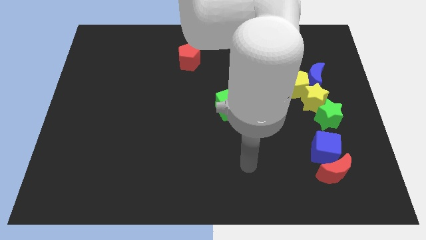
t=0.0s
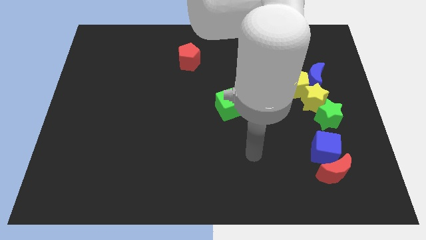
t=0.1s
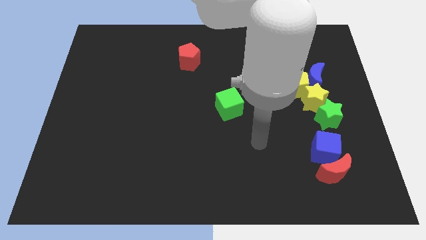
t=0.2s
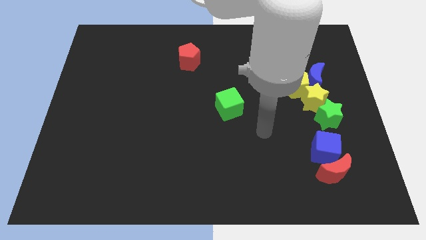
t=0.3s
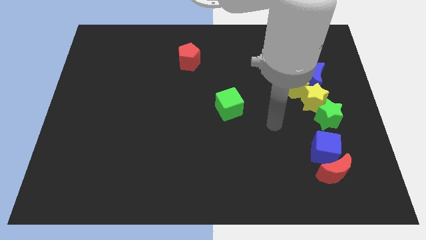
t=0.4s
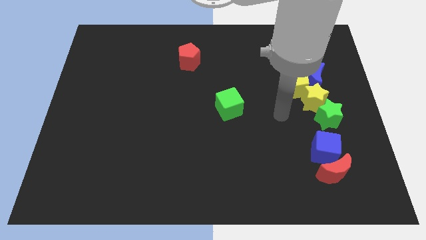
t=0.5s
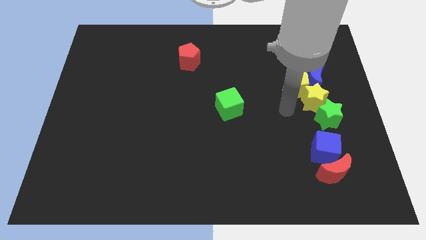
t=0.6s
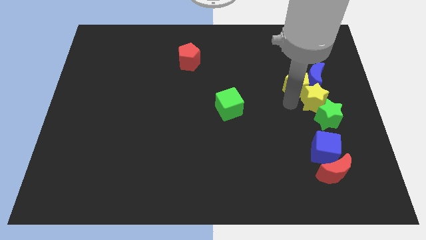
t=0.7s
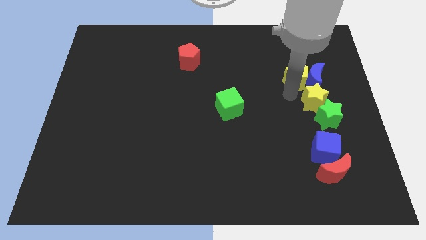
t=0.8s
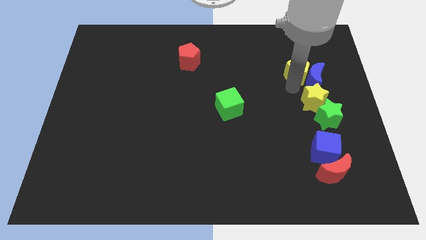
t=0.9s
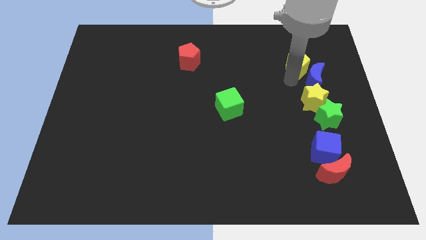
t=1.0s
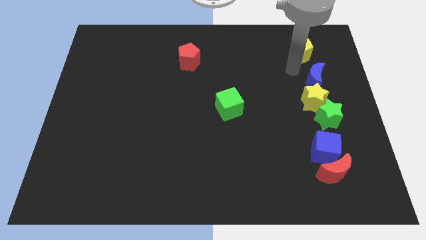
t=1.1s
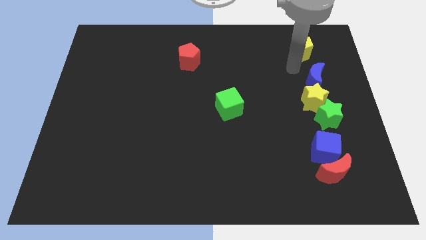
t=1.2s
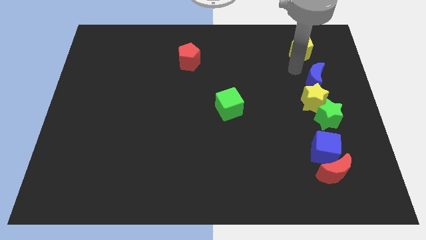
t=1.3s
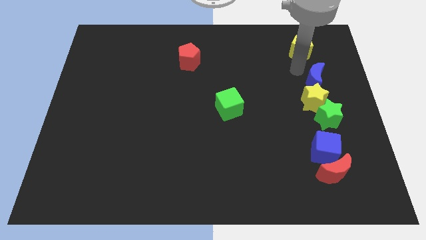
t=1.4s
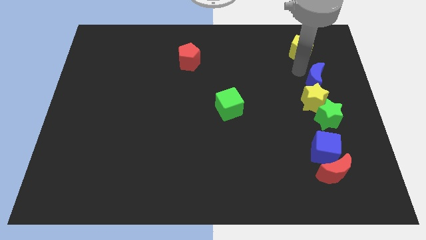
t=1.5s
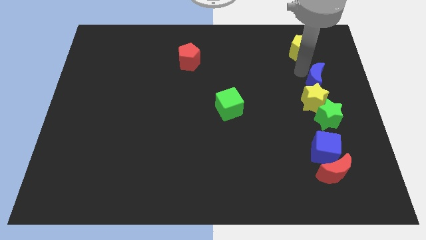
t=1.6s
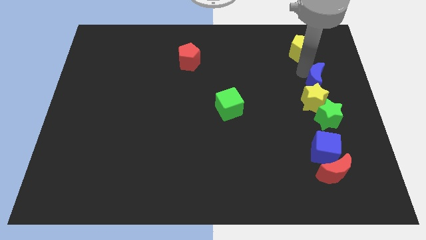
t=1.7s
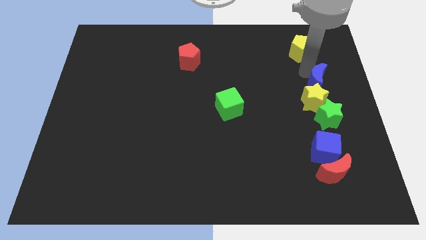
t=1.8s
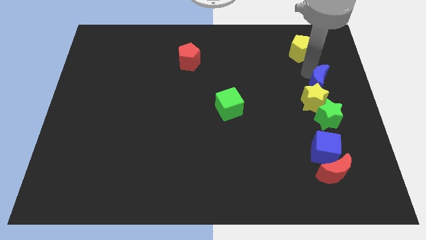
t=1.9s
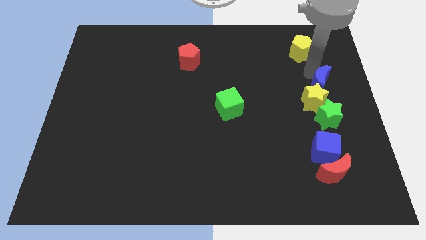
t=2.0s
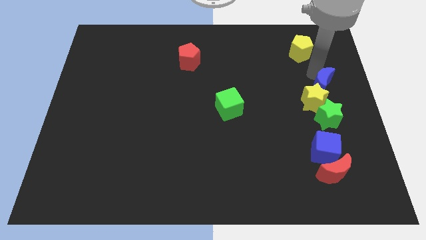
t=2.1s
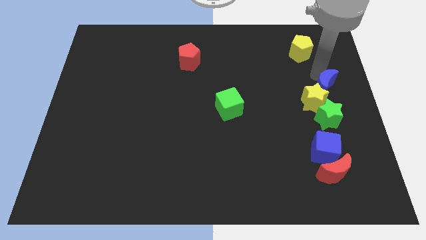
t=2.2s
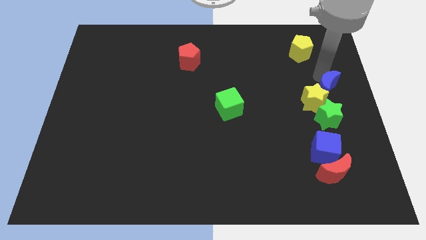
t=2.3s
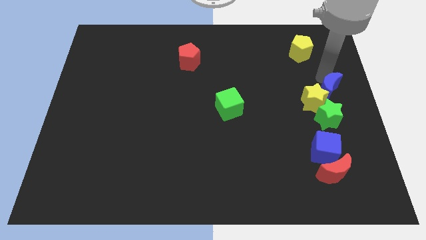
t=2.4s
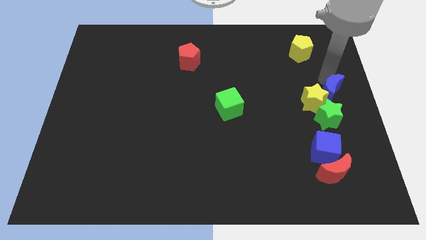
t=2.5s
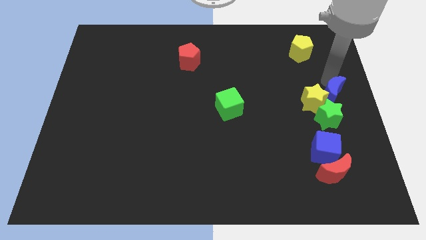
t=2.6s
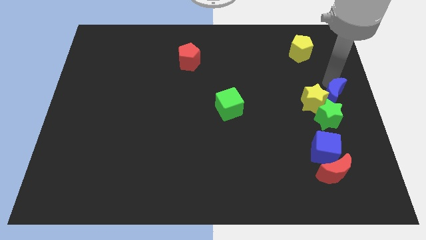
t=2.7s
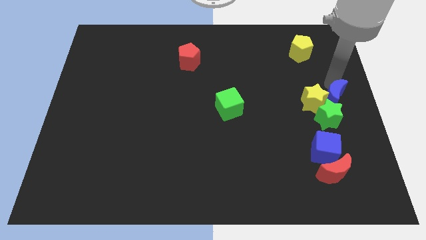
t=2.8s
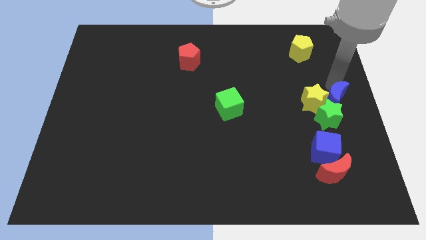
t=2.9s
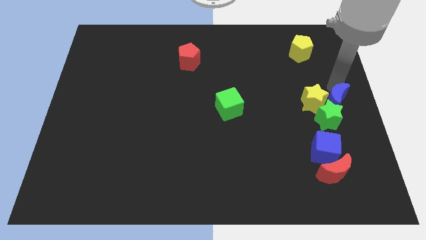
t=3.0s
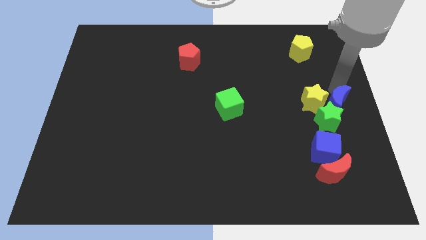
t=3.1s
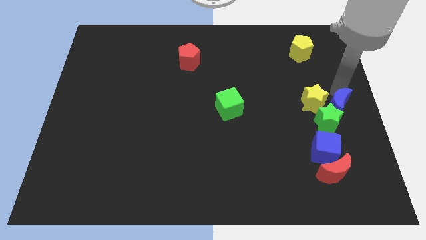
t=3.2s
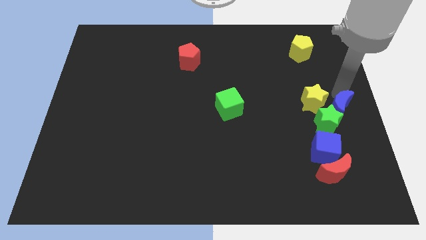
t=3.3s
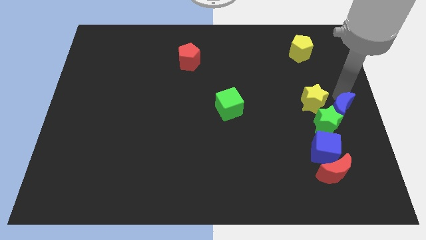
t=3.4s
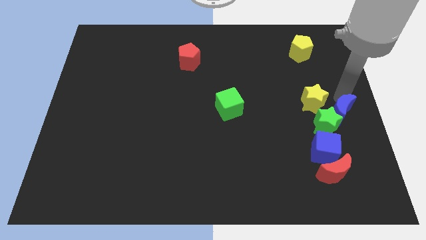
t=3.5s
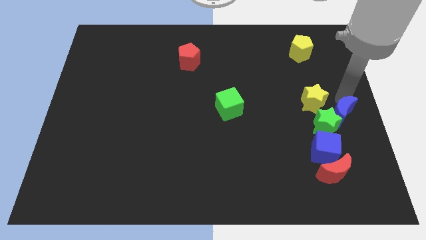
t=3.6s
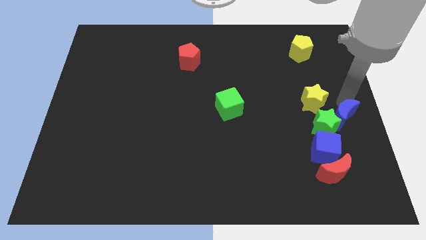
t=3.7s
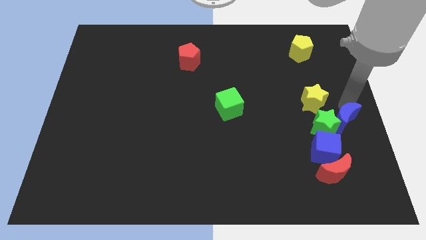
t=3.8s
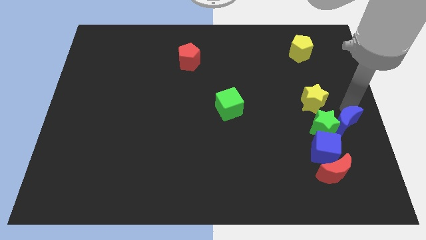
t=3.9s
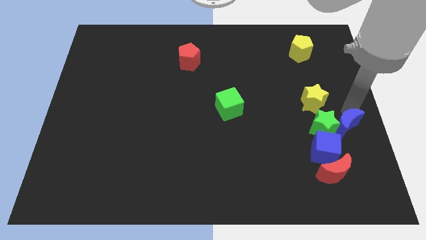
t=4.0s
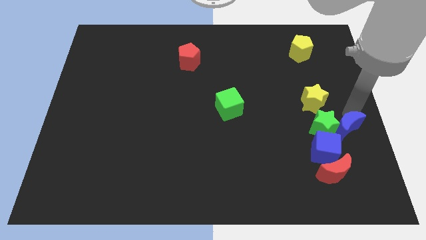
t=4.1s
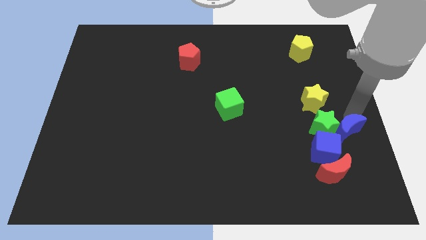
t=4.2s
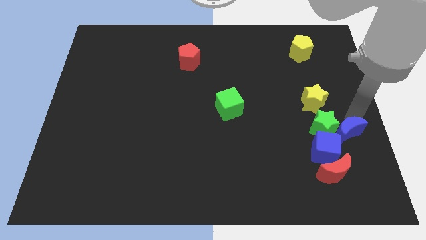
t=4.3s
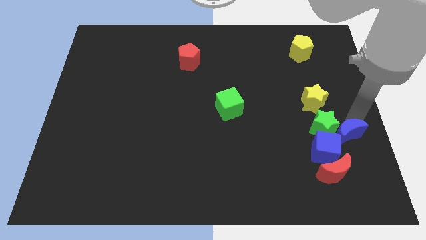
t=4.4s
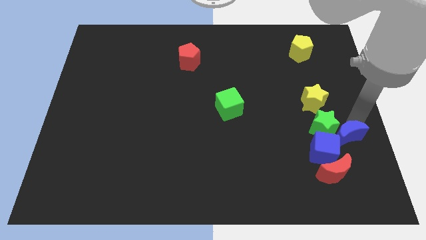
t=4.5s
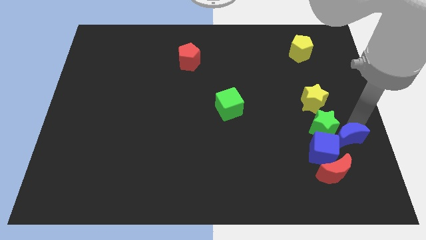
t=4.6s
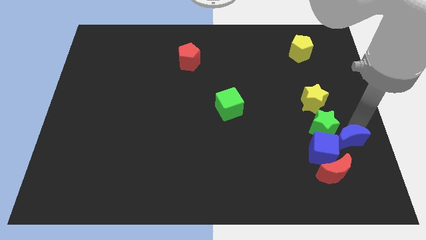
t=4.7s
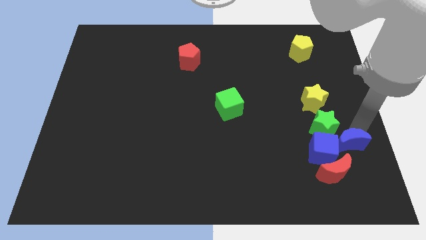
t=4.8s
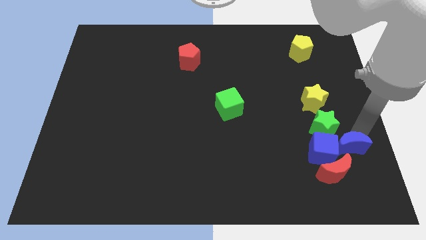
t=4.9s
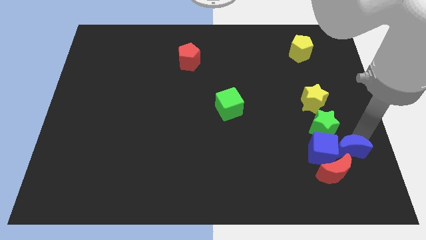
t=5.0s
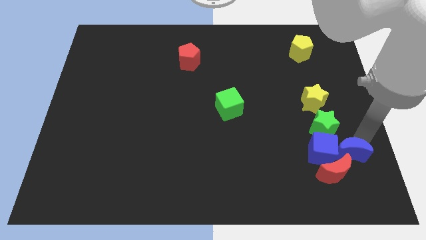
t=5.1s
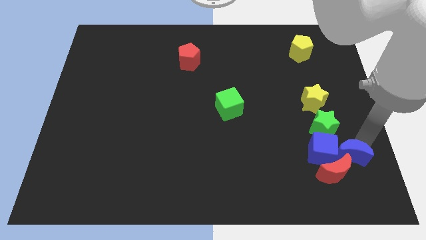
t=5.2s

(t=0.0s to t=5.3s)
push the blue moon close to the red moon

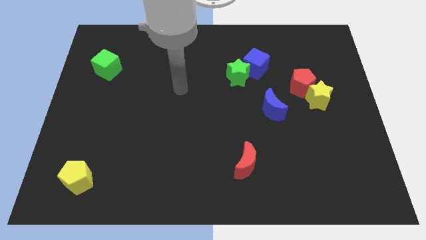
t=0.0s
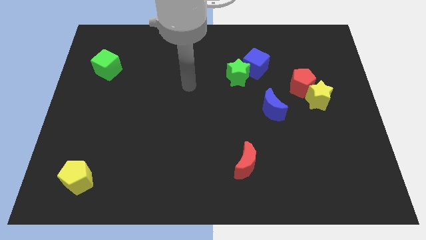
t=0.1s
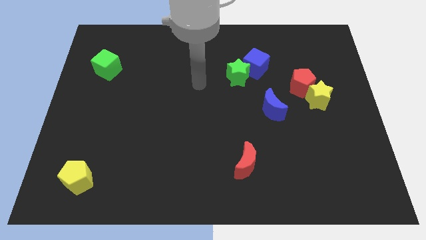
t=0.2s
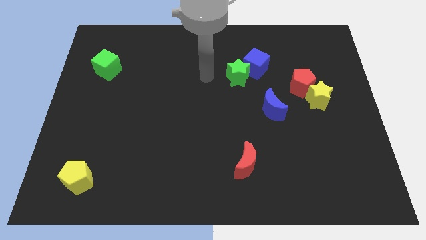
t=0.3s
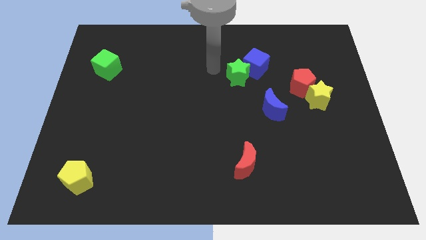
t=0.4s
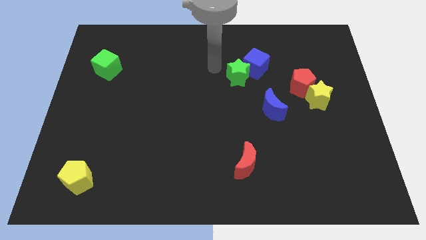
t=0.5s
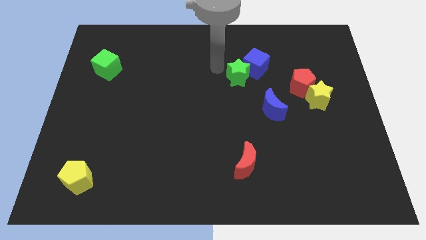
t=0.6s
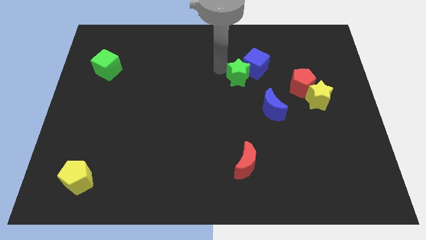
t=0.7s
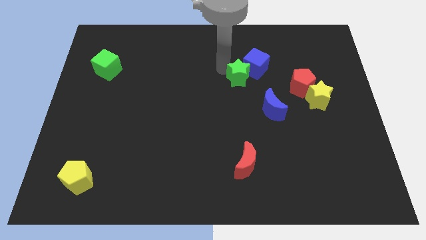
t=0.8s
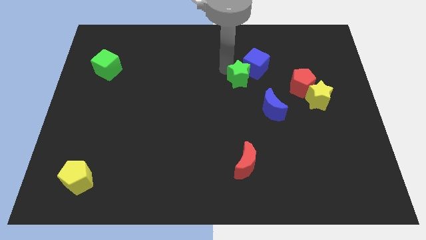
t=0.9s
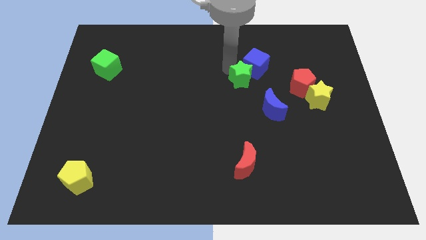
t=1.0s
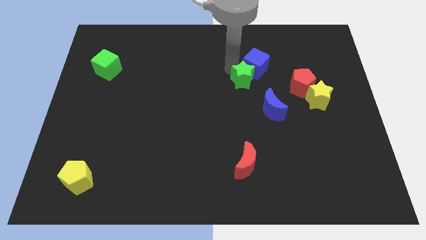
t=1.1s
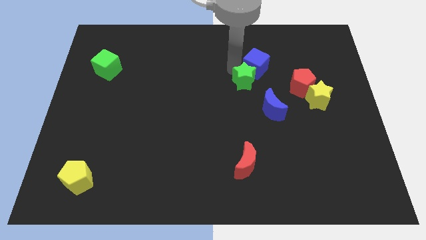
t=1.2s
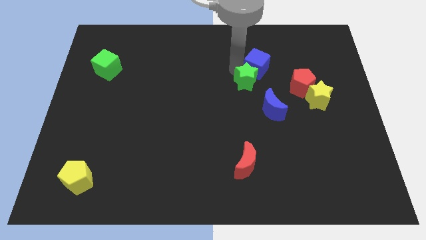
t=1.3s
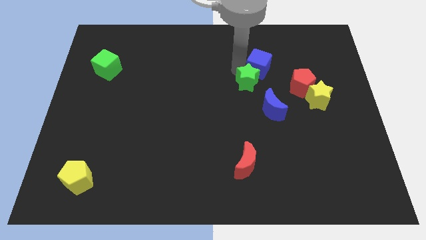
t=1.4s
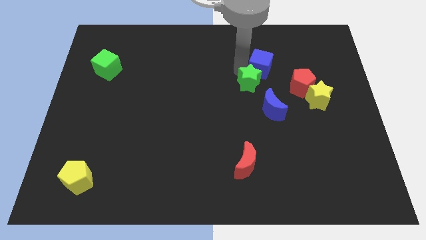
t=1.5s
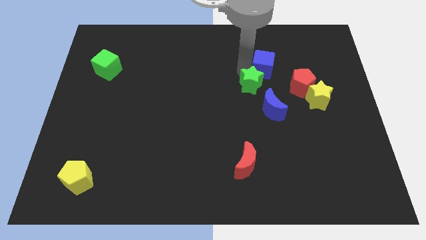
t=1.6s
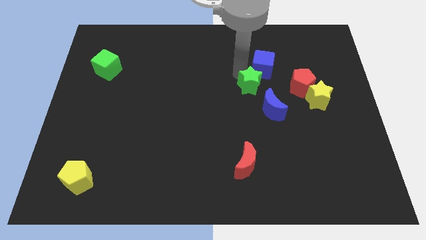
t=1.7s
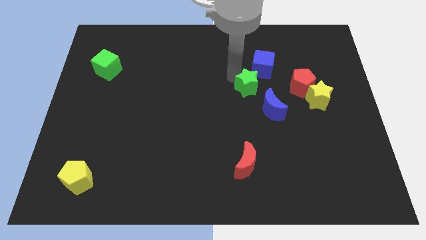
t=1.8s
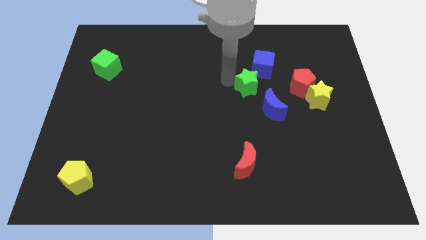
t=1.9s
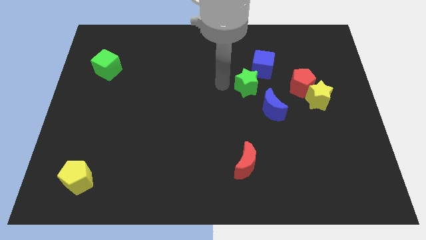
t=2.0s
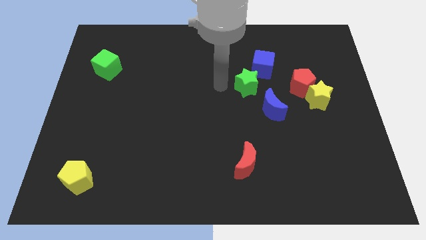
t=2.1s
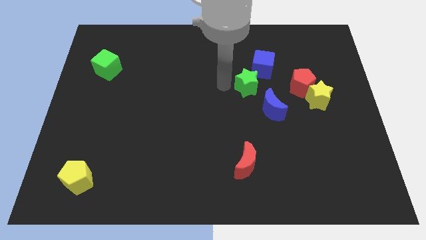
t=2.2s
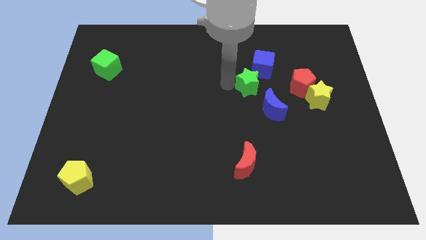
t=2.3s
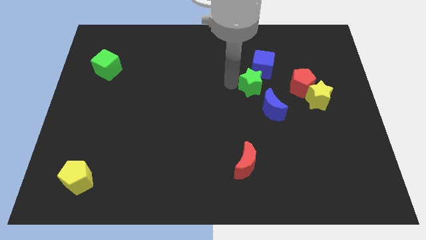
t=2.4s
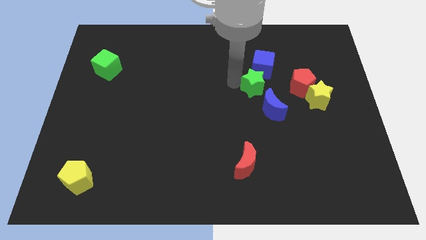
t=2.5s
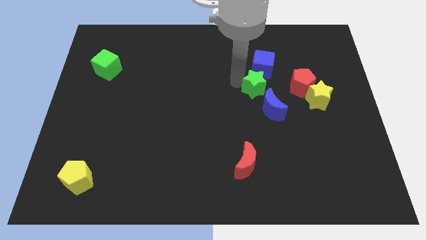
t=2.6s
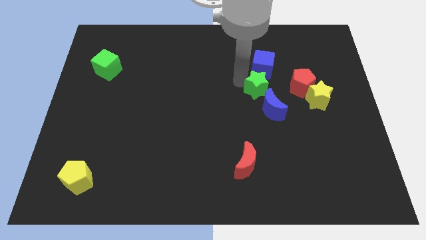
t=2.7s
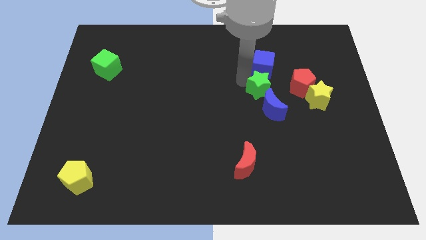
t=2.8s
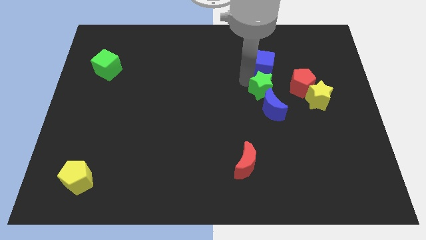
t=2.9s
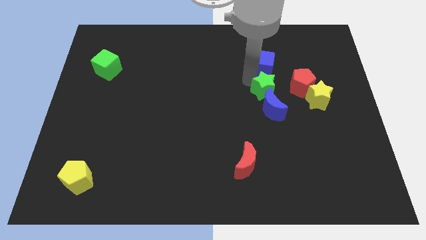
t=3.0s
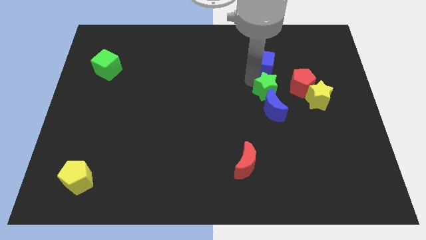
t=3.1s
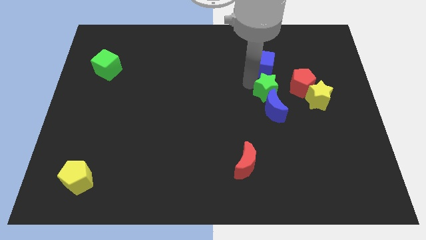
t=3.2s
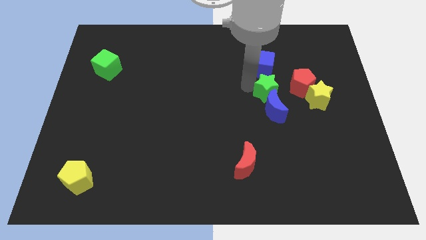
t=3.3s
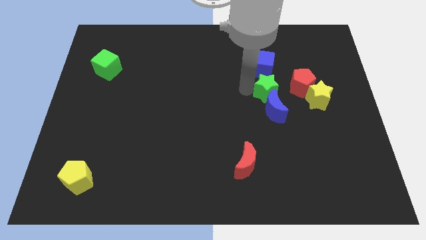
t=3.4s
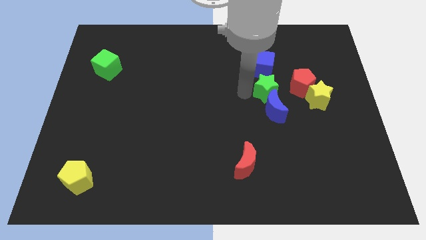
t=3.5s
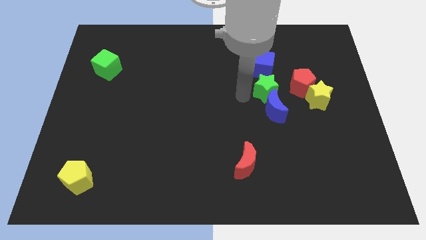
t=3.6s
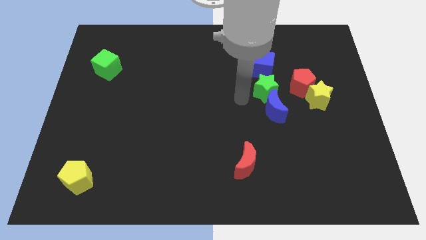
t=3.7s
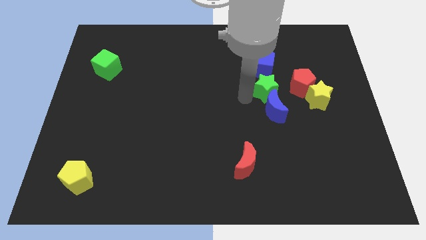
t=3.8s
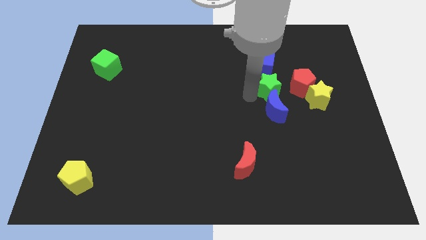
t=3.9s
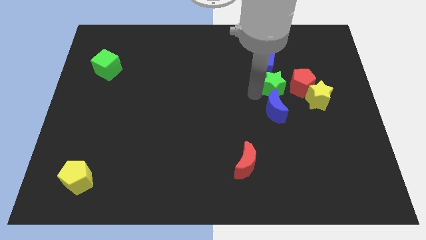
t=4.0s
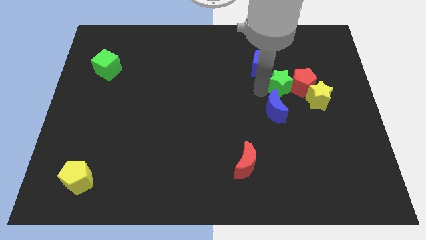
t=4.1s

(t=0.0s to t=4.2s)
push the green star close to the red pentagon
